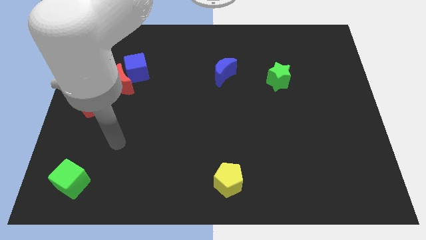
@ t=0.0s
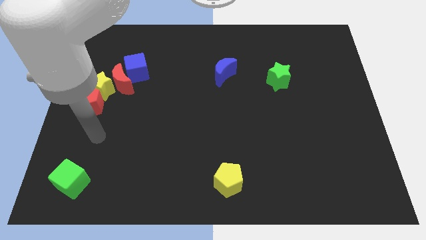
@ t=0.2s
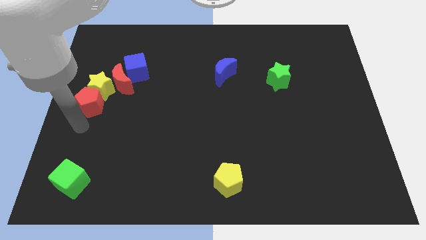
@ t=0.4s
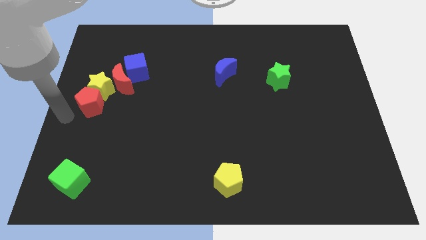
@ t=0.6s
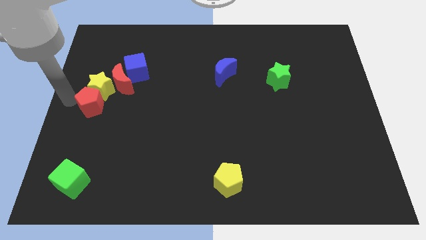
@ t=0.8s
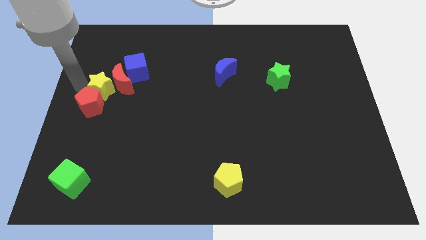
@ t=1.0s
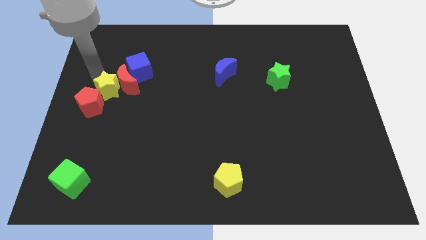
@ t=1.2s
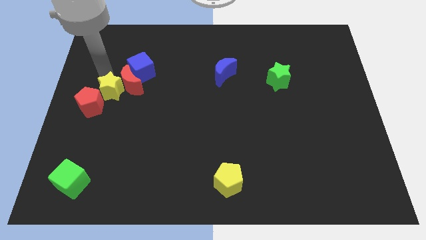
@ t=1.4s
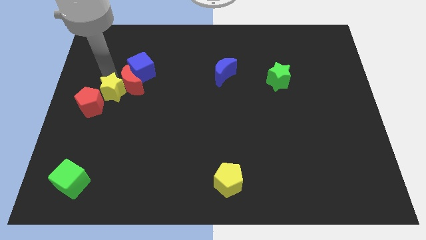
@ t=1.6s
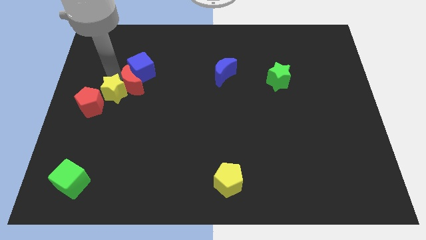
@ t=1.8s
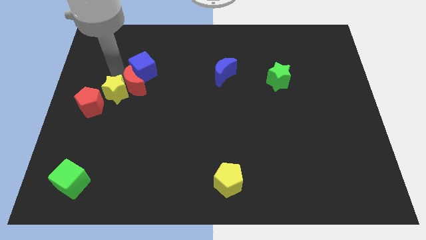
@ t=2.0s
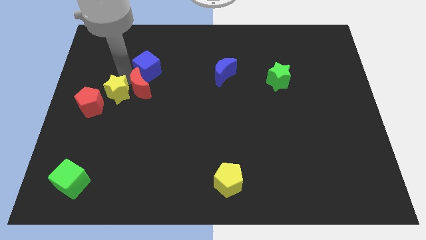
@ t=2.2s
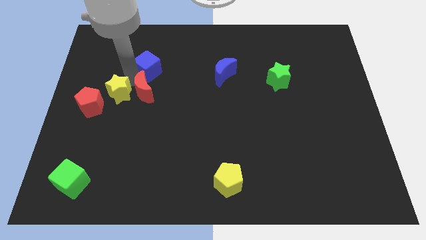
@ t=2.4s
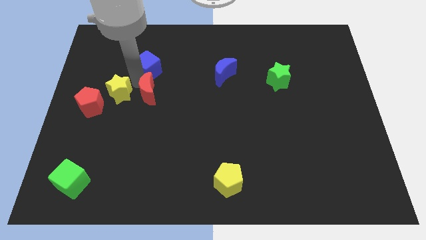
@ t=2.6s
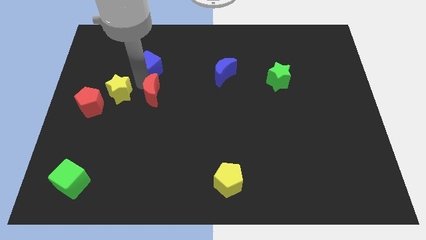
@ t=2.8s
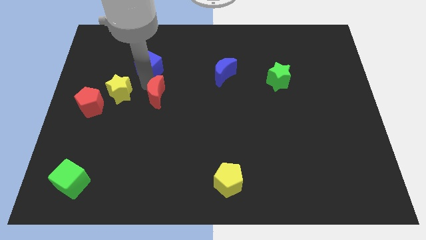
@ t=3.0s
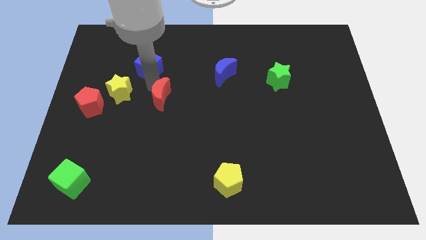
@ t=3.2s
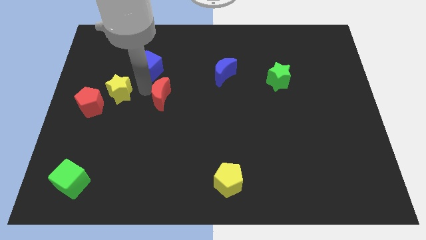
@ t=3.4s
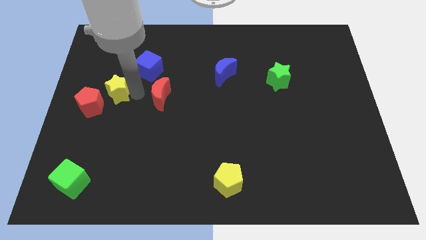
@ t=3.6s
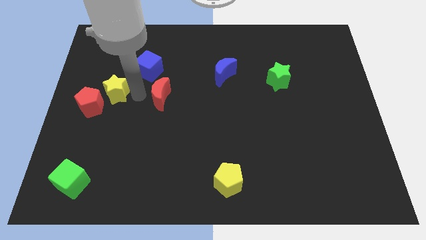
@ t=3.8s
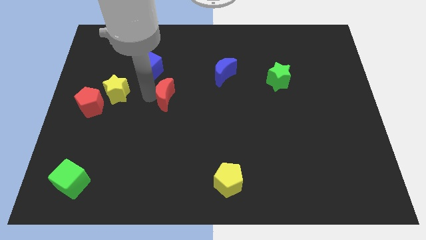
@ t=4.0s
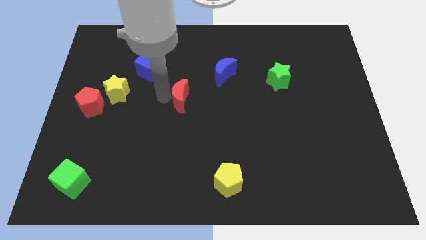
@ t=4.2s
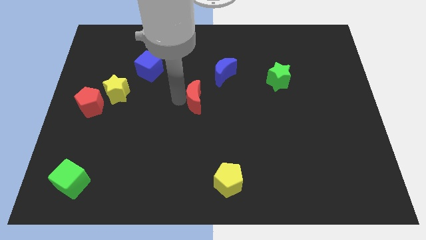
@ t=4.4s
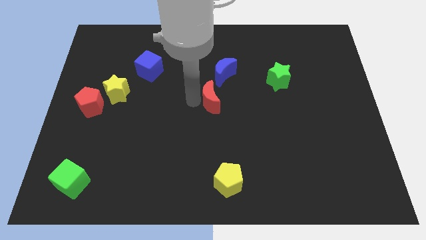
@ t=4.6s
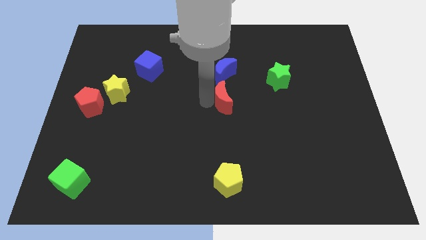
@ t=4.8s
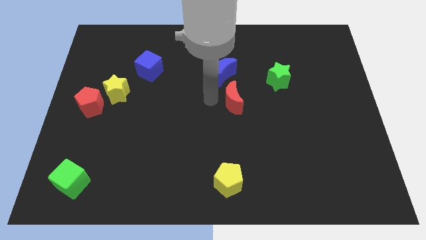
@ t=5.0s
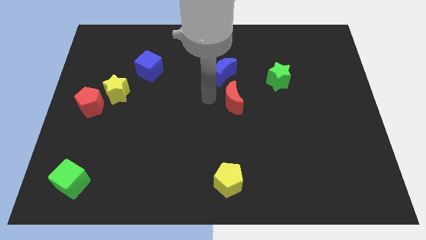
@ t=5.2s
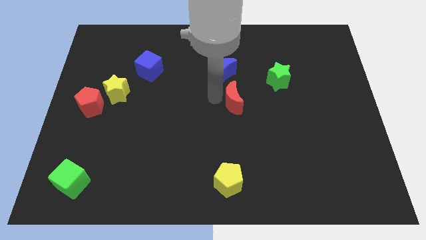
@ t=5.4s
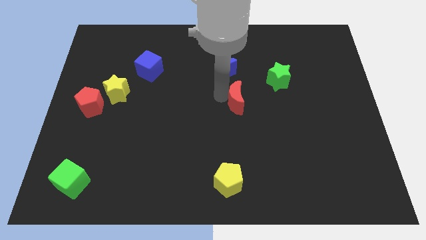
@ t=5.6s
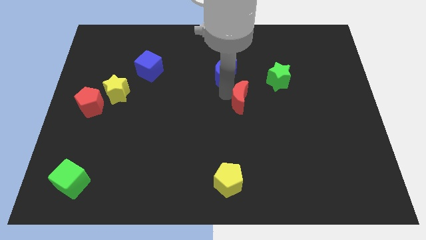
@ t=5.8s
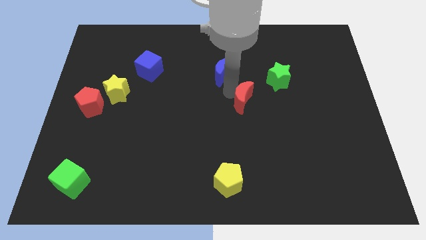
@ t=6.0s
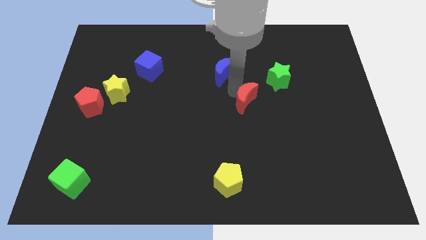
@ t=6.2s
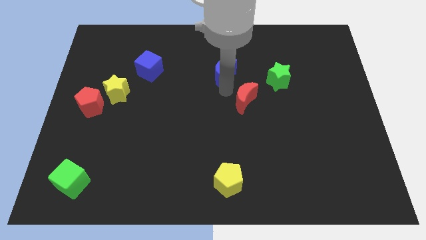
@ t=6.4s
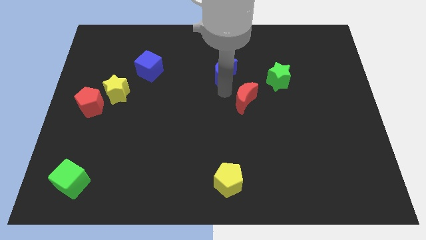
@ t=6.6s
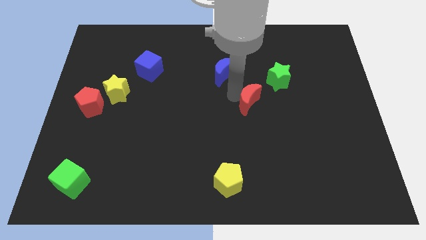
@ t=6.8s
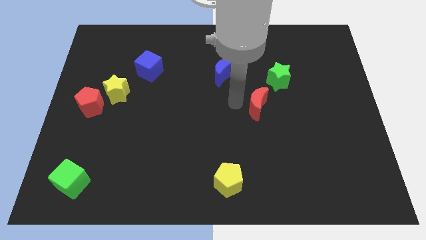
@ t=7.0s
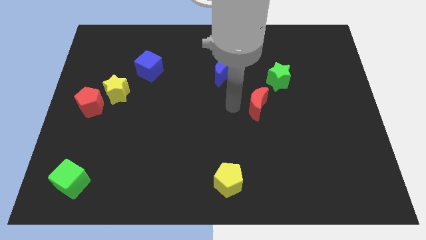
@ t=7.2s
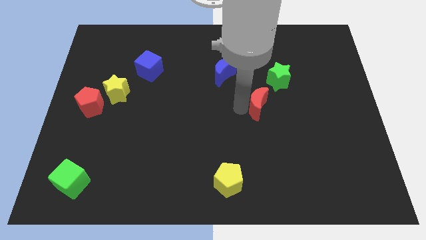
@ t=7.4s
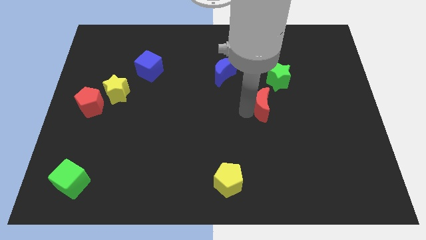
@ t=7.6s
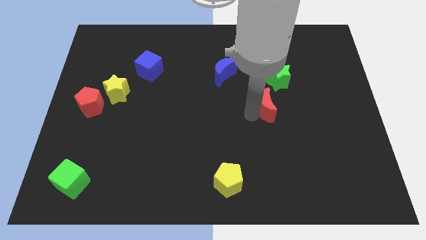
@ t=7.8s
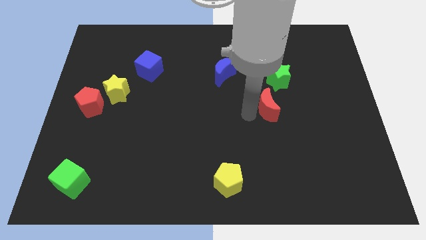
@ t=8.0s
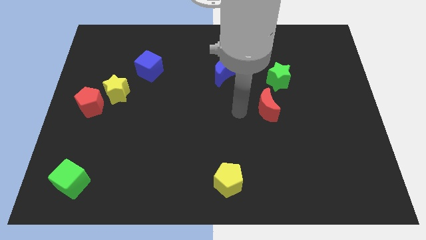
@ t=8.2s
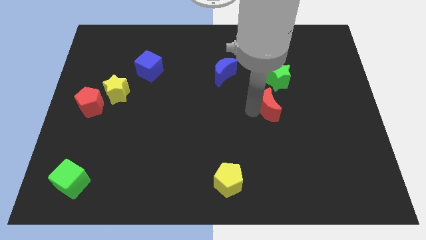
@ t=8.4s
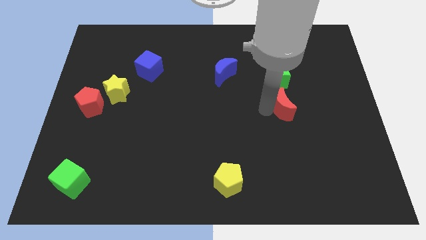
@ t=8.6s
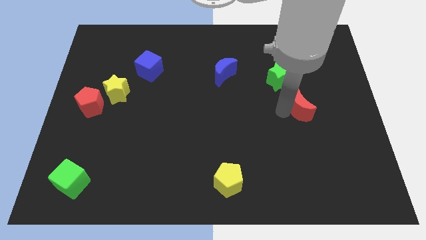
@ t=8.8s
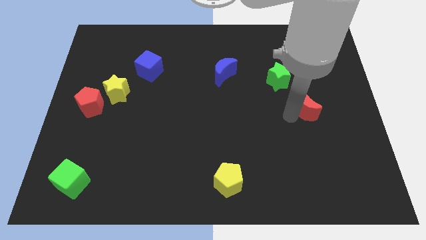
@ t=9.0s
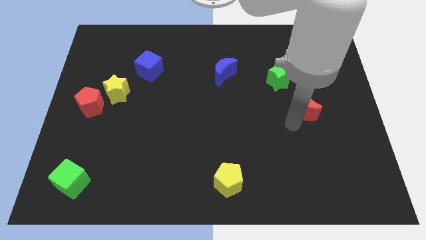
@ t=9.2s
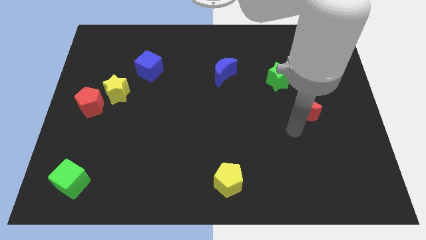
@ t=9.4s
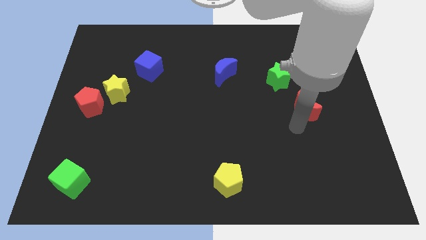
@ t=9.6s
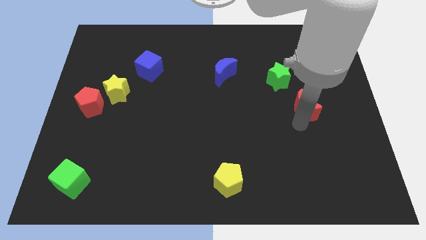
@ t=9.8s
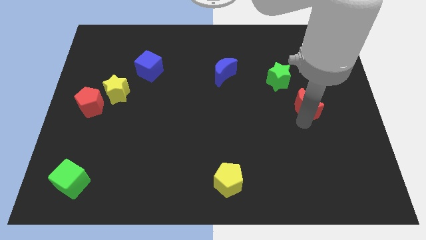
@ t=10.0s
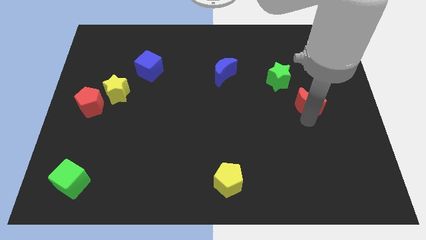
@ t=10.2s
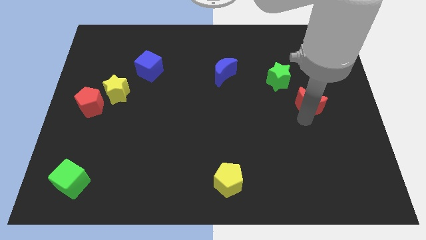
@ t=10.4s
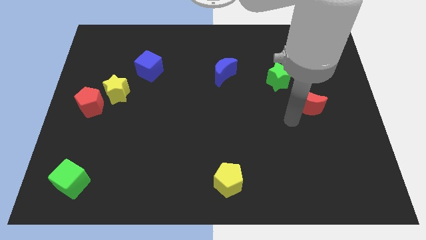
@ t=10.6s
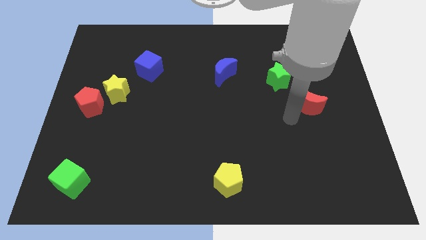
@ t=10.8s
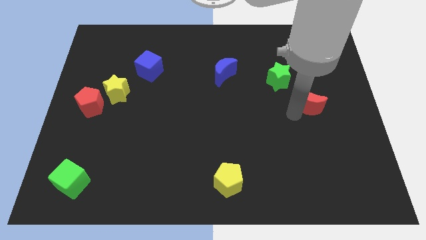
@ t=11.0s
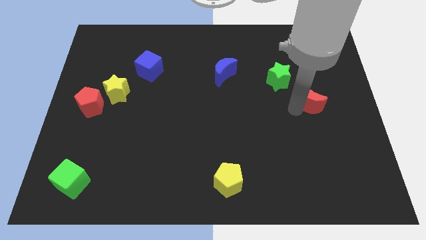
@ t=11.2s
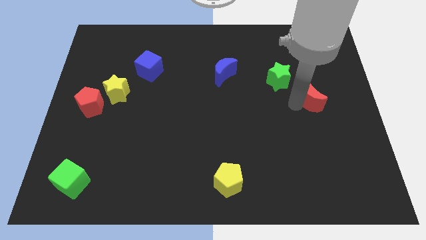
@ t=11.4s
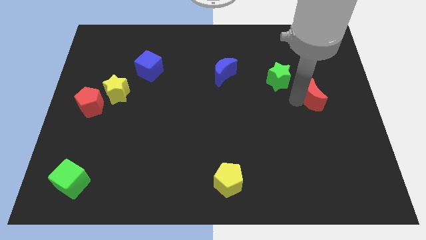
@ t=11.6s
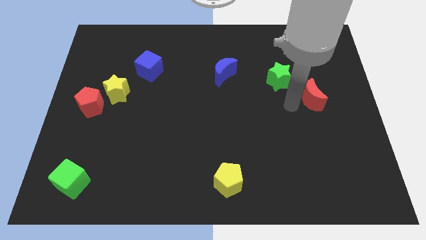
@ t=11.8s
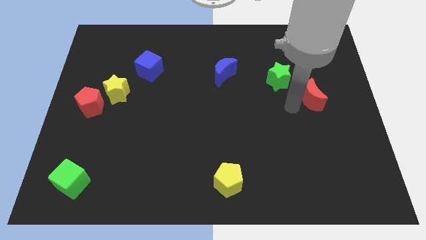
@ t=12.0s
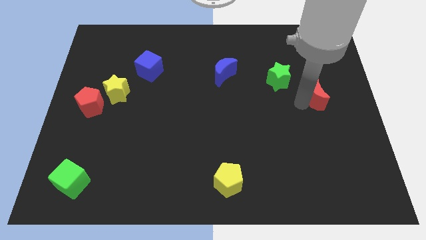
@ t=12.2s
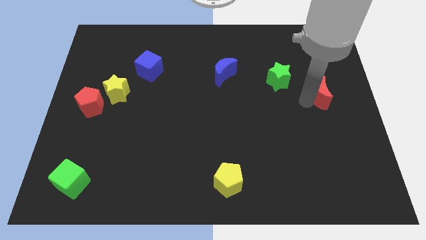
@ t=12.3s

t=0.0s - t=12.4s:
push the red moon to the center right
